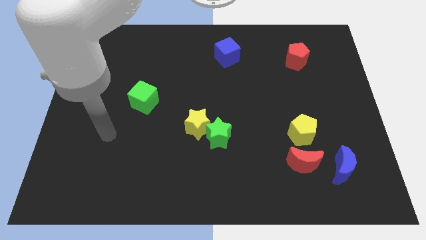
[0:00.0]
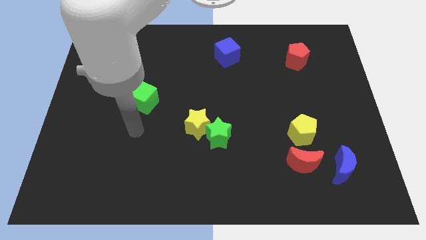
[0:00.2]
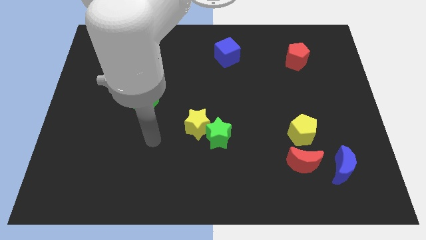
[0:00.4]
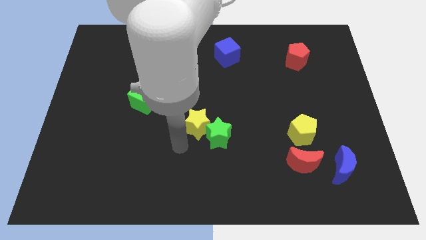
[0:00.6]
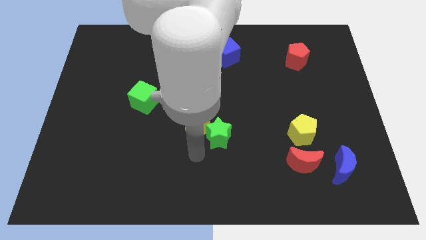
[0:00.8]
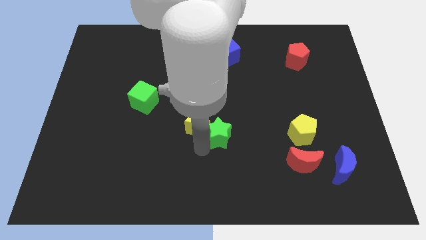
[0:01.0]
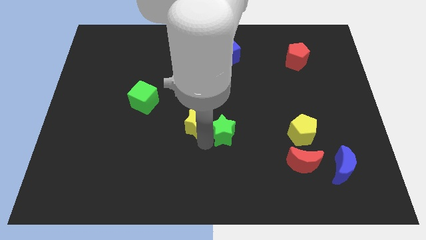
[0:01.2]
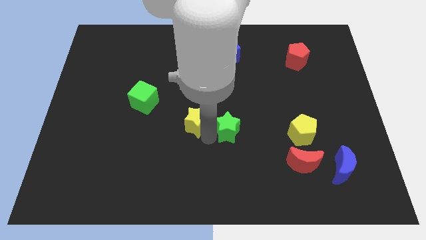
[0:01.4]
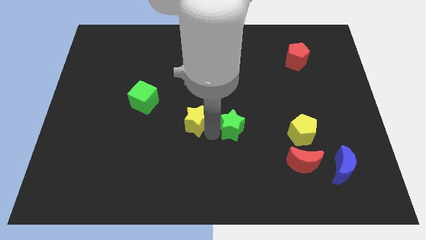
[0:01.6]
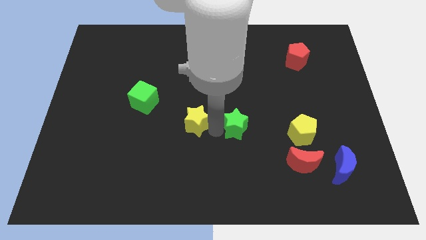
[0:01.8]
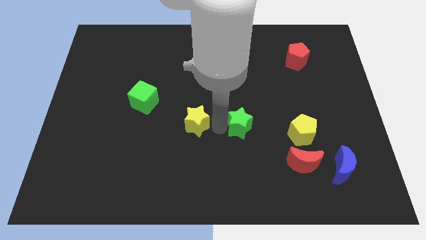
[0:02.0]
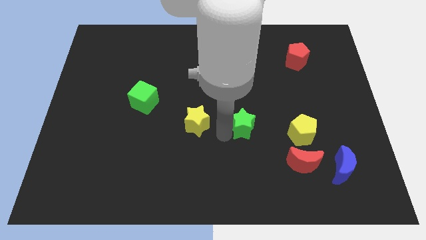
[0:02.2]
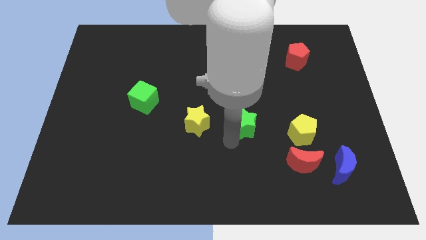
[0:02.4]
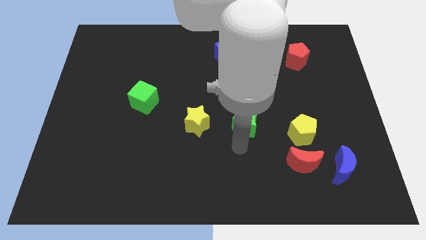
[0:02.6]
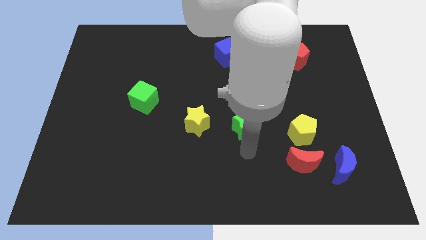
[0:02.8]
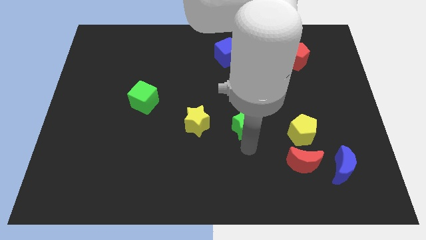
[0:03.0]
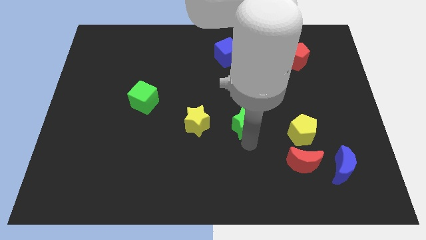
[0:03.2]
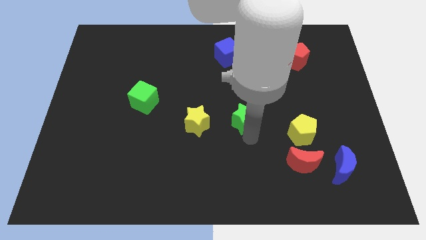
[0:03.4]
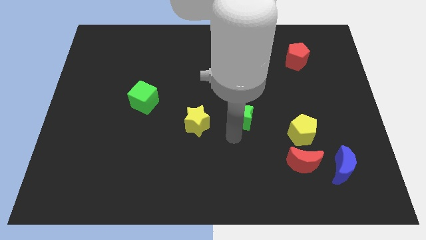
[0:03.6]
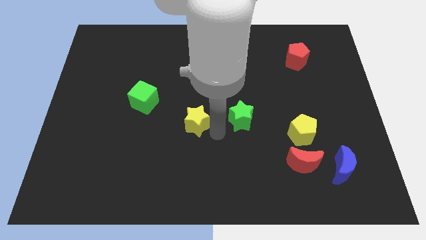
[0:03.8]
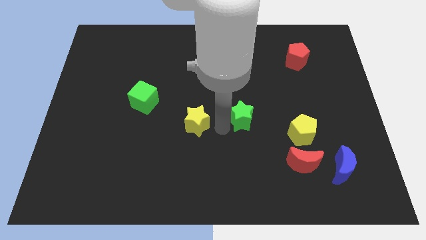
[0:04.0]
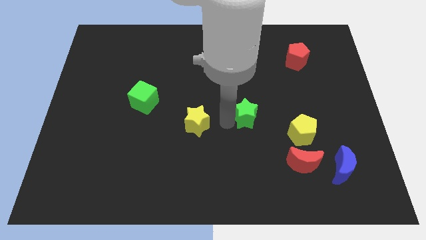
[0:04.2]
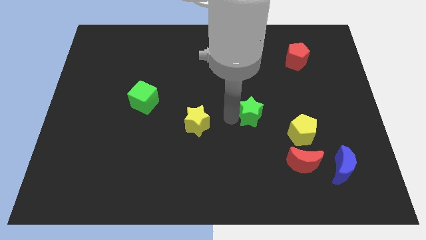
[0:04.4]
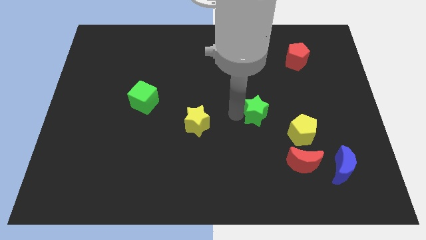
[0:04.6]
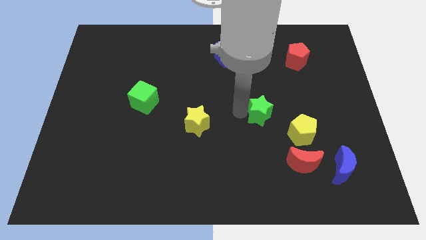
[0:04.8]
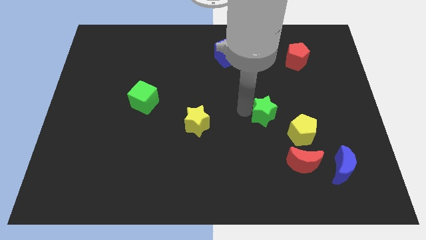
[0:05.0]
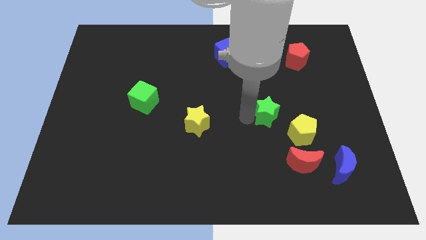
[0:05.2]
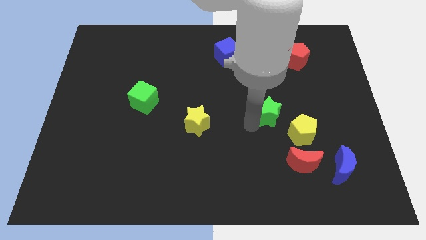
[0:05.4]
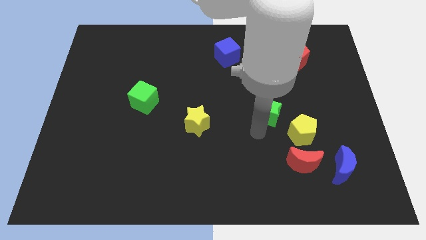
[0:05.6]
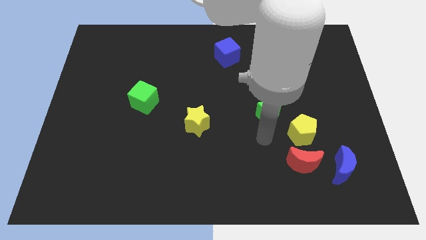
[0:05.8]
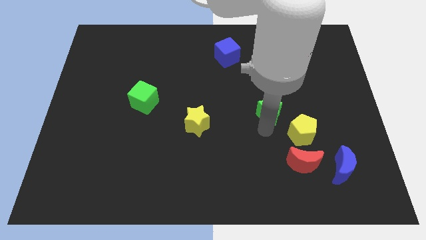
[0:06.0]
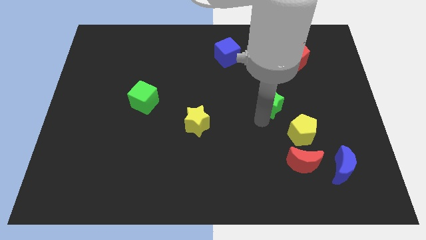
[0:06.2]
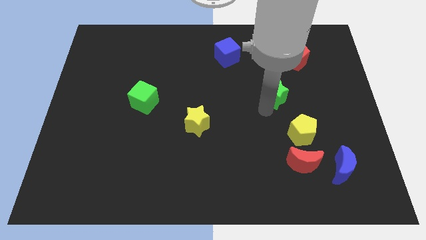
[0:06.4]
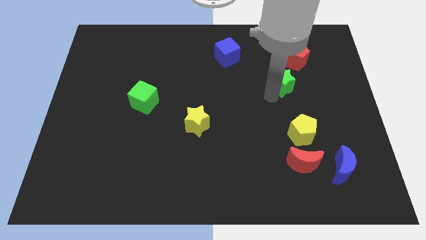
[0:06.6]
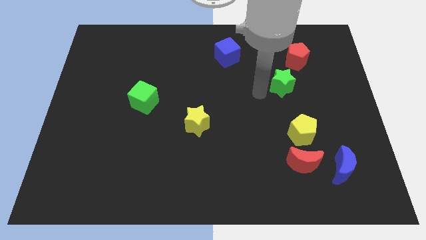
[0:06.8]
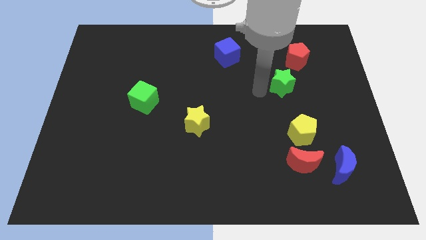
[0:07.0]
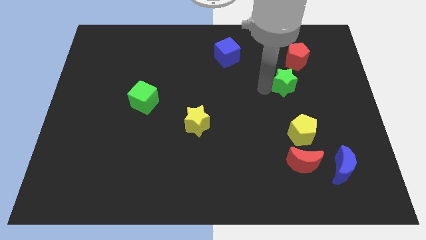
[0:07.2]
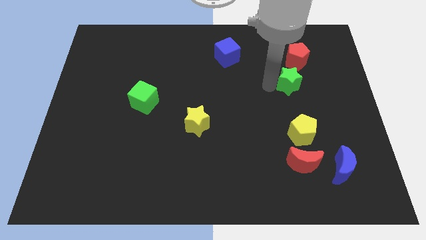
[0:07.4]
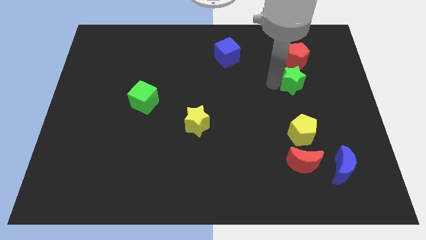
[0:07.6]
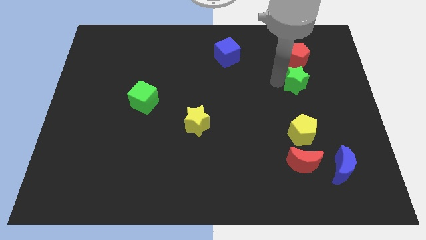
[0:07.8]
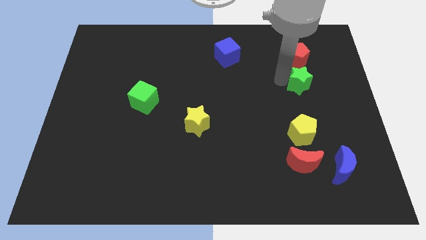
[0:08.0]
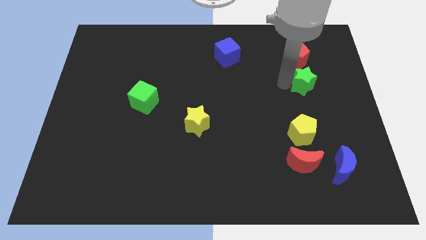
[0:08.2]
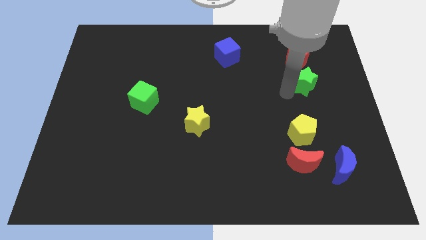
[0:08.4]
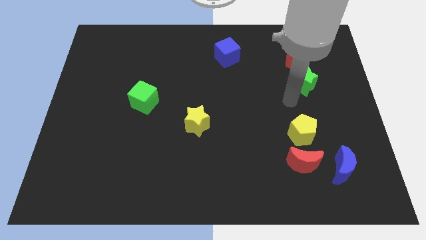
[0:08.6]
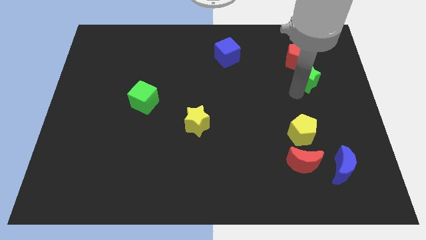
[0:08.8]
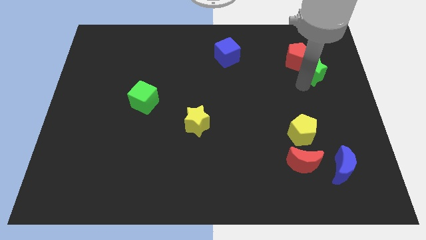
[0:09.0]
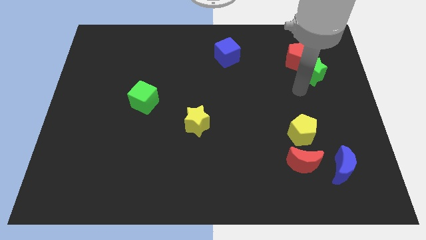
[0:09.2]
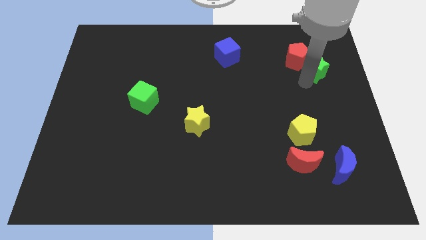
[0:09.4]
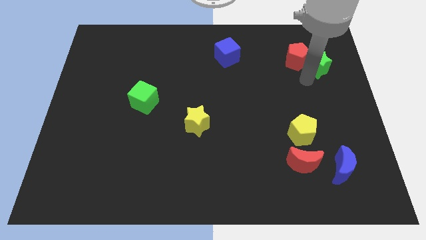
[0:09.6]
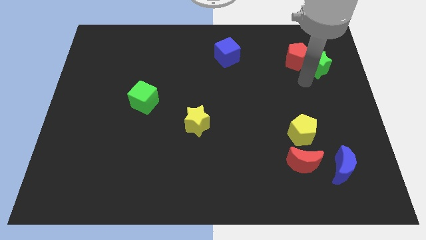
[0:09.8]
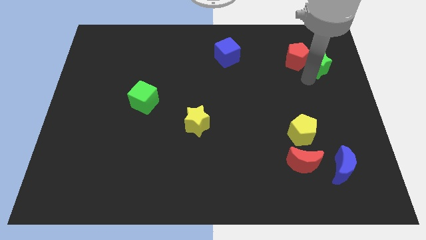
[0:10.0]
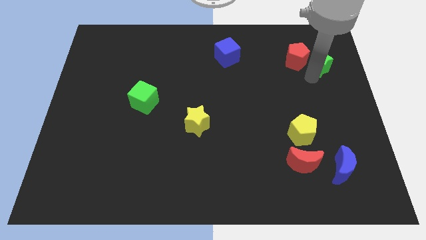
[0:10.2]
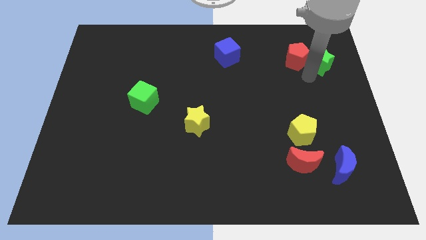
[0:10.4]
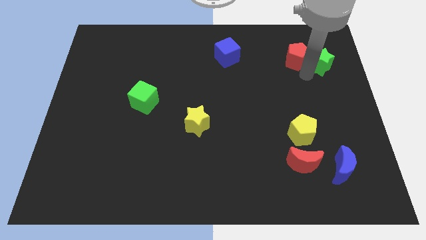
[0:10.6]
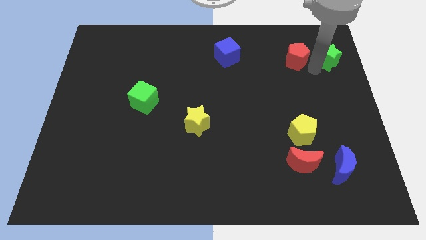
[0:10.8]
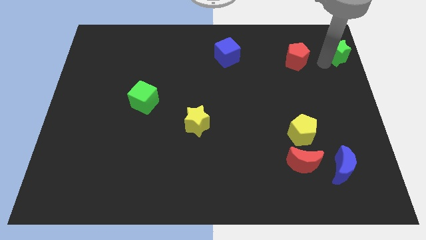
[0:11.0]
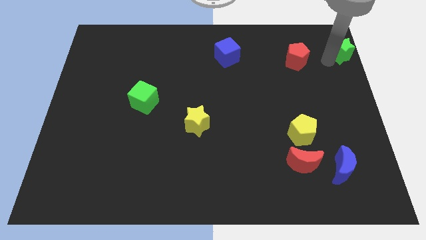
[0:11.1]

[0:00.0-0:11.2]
slide the green star to the top right
